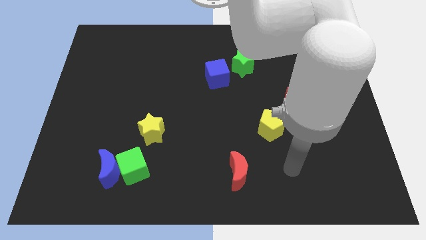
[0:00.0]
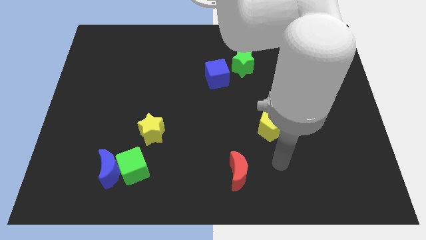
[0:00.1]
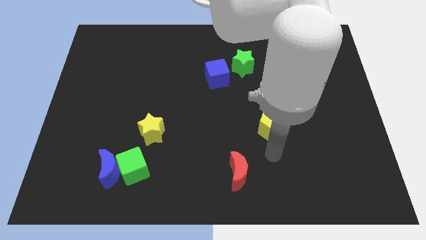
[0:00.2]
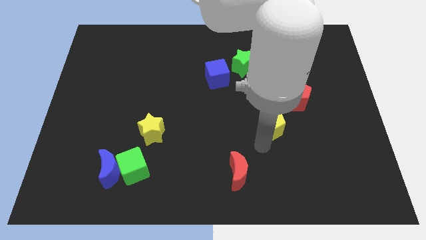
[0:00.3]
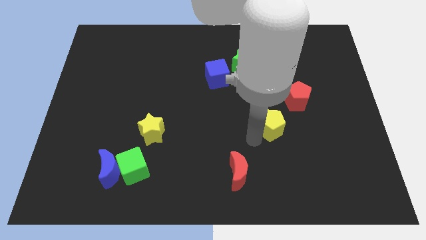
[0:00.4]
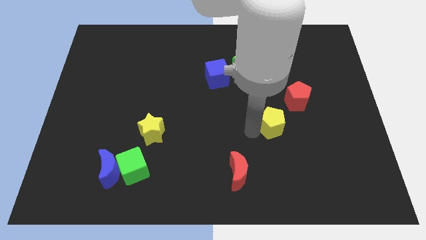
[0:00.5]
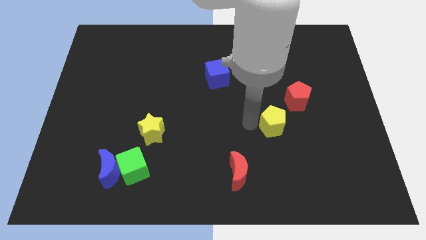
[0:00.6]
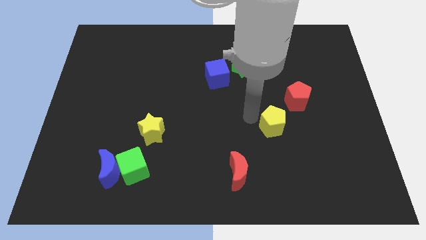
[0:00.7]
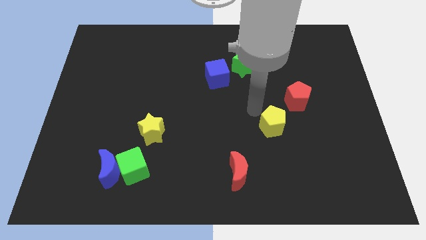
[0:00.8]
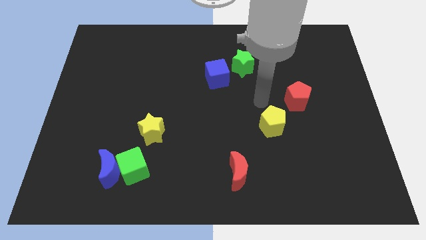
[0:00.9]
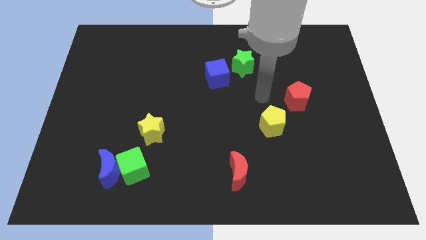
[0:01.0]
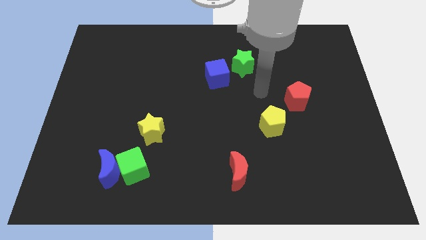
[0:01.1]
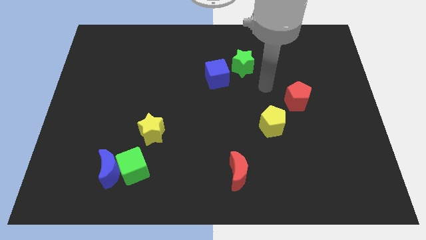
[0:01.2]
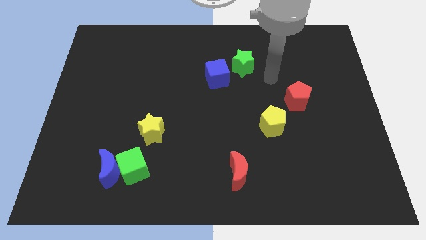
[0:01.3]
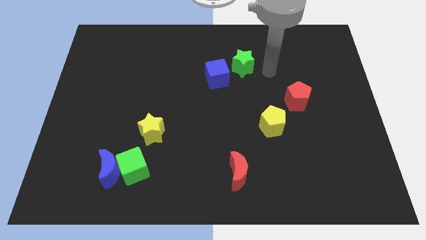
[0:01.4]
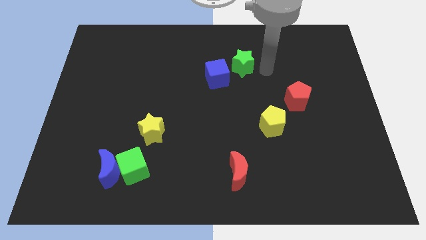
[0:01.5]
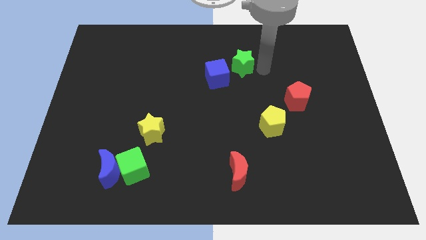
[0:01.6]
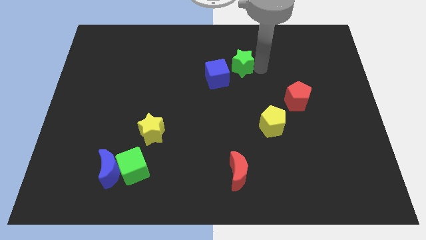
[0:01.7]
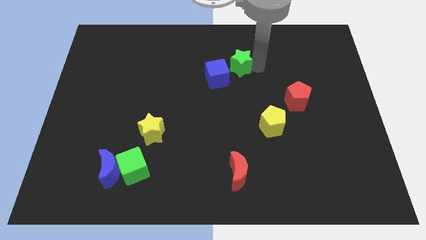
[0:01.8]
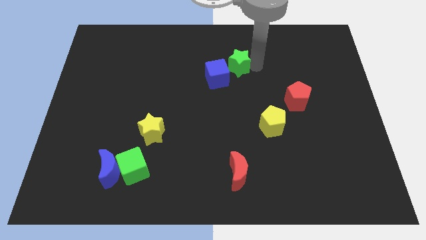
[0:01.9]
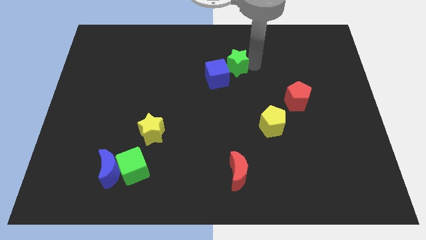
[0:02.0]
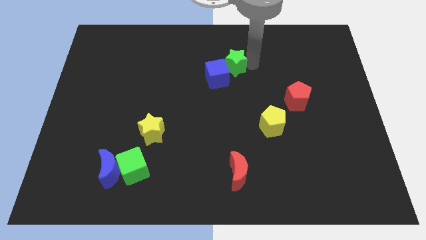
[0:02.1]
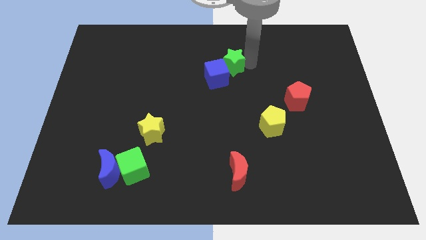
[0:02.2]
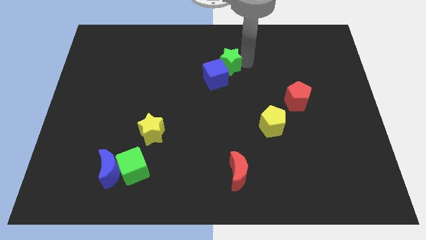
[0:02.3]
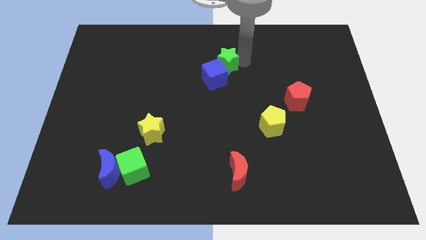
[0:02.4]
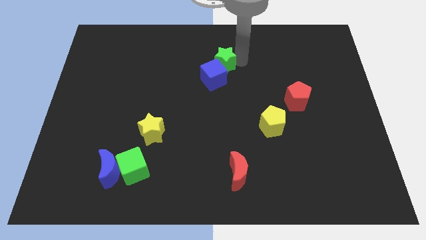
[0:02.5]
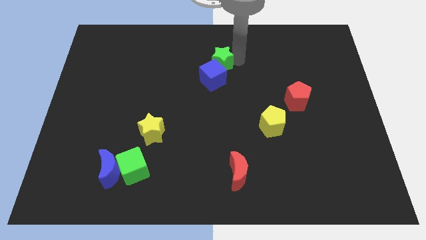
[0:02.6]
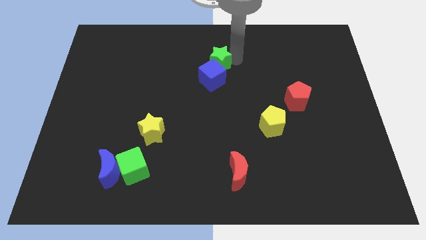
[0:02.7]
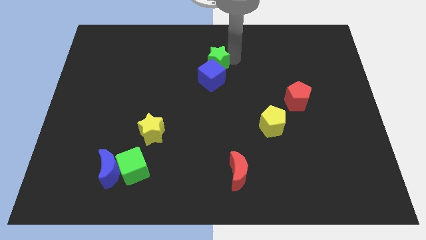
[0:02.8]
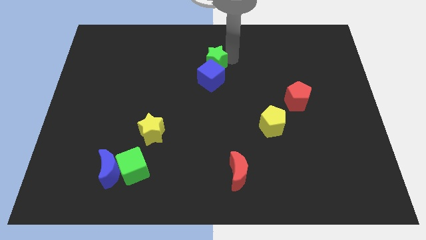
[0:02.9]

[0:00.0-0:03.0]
slide the green star slightly to the left

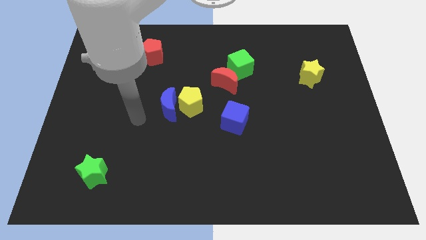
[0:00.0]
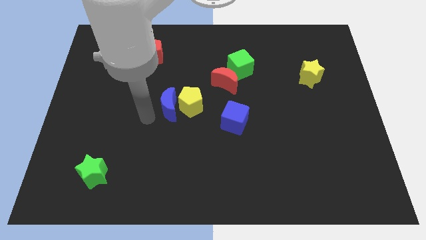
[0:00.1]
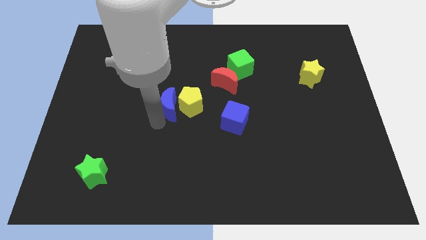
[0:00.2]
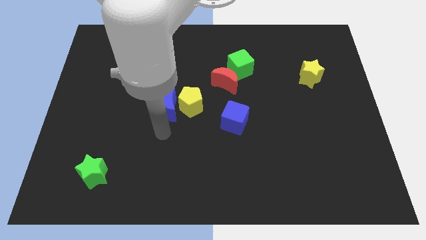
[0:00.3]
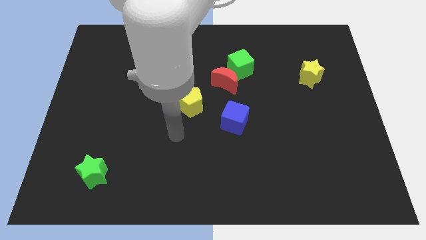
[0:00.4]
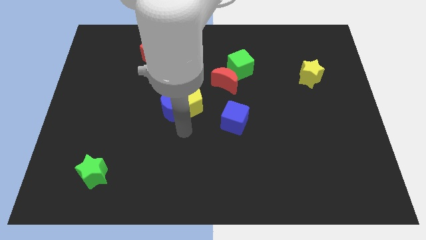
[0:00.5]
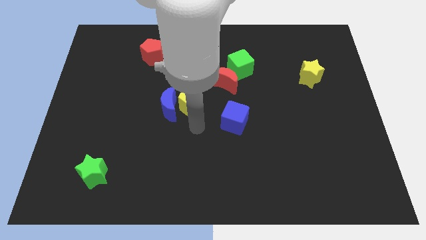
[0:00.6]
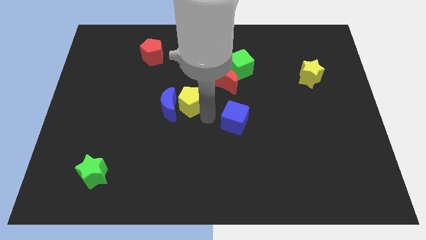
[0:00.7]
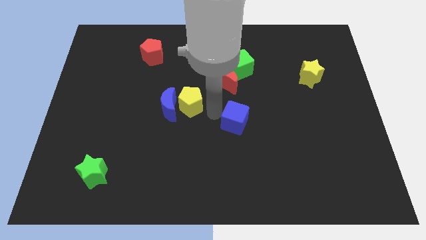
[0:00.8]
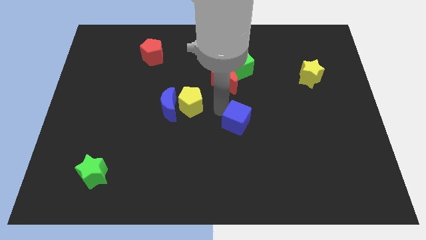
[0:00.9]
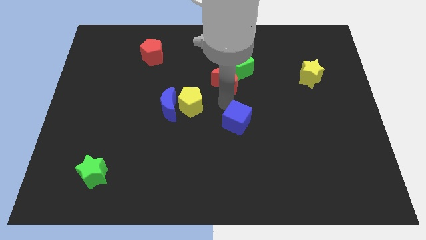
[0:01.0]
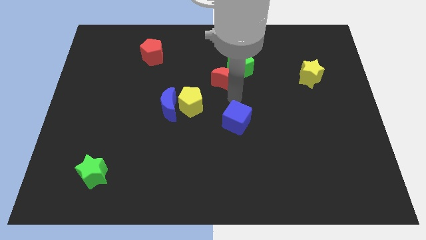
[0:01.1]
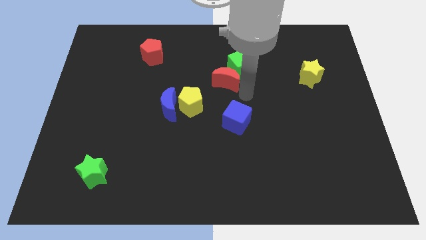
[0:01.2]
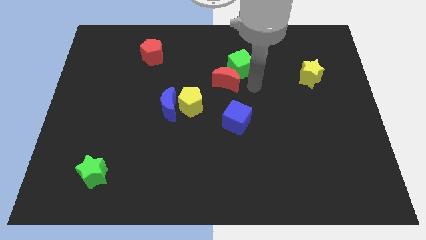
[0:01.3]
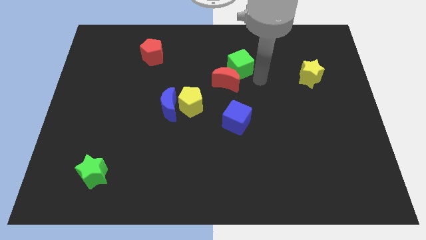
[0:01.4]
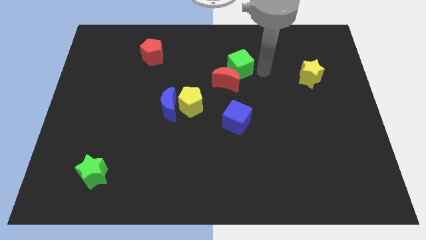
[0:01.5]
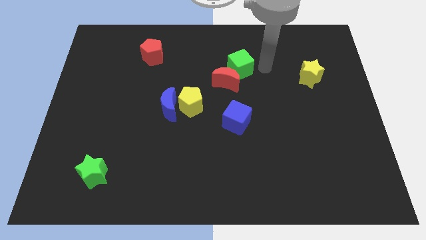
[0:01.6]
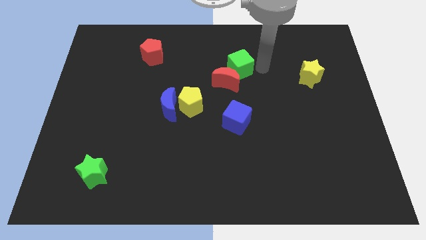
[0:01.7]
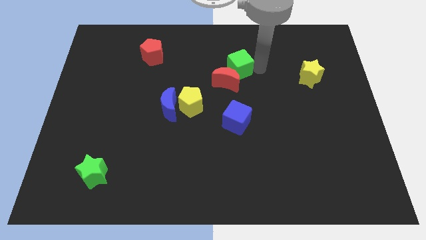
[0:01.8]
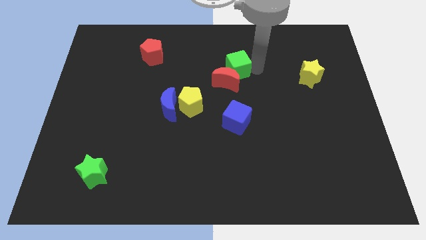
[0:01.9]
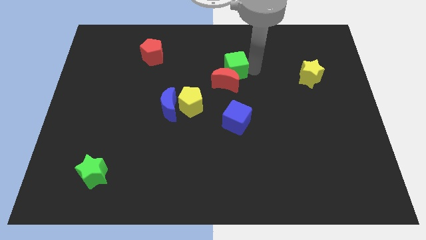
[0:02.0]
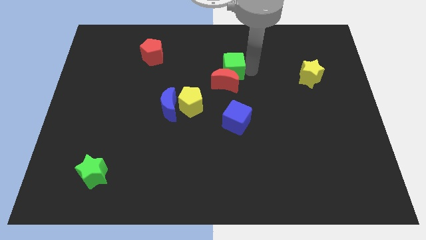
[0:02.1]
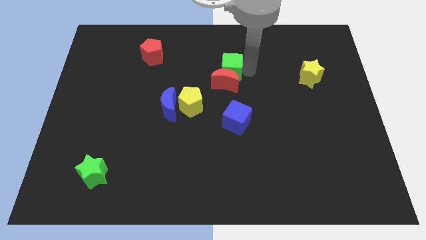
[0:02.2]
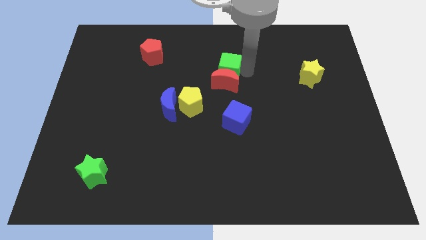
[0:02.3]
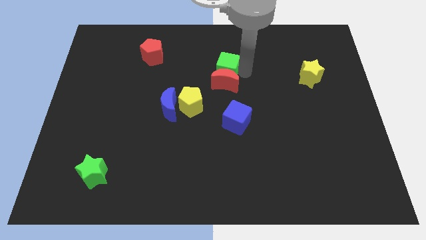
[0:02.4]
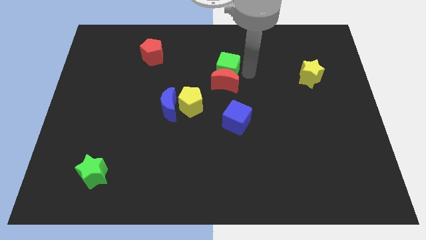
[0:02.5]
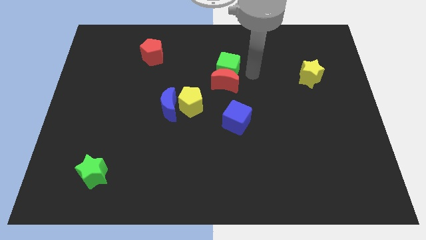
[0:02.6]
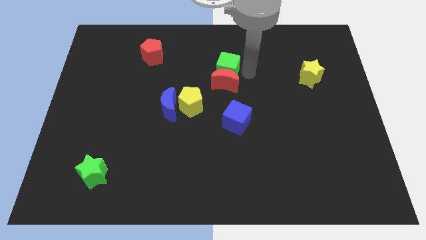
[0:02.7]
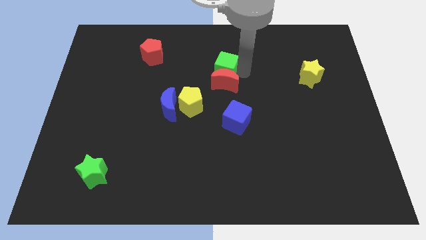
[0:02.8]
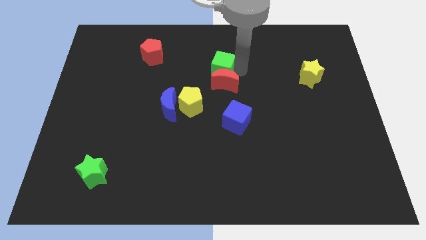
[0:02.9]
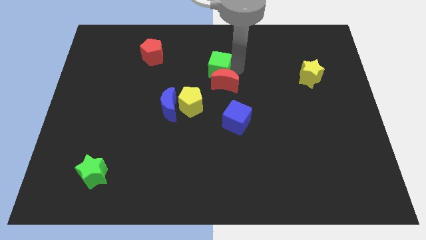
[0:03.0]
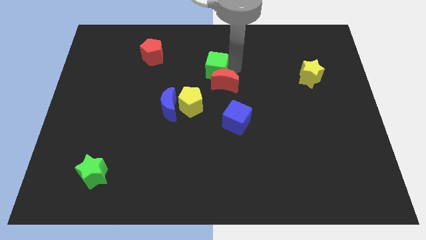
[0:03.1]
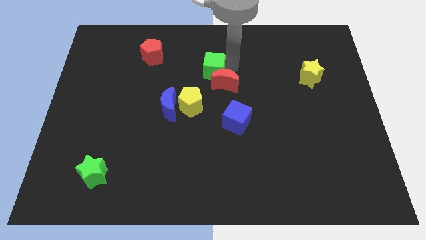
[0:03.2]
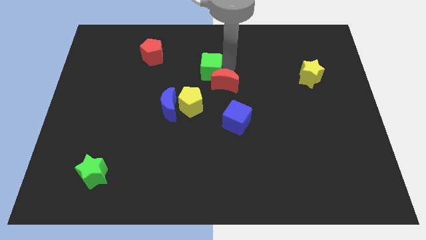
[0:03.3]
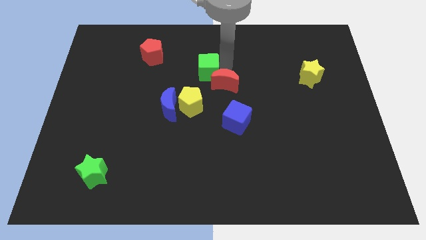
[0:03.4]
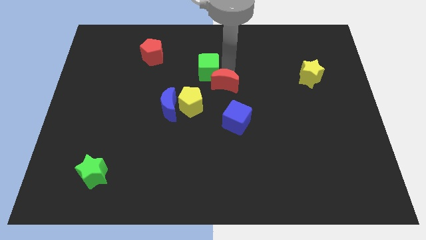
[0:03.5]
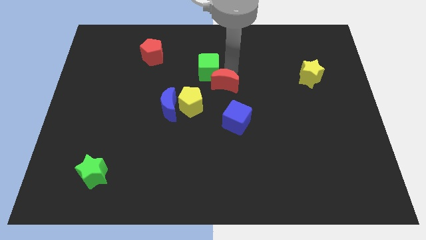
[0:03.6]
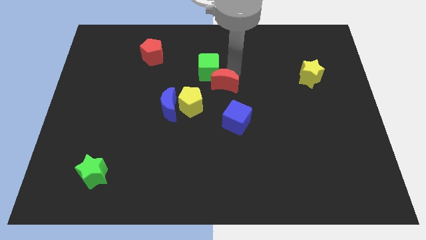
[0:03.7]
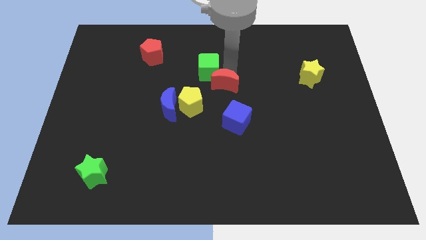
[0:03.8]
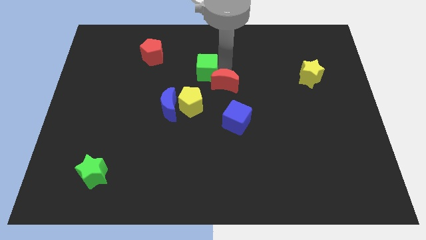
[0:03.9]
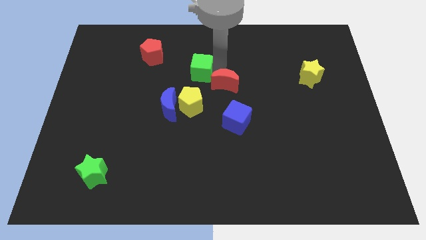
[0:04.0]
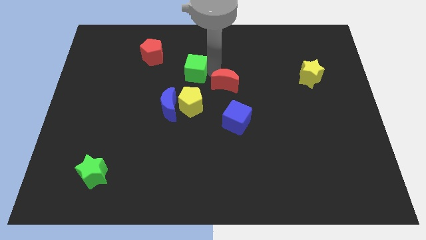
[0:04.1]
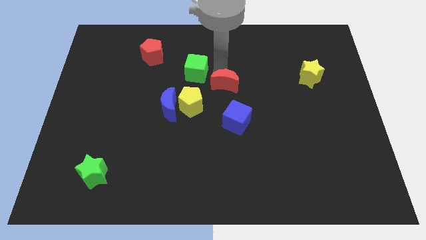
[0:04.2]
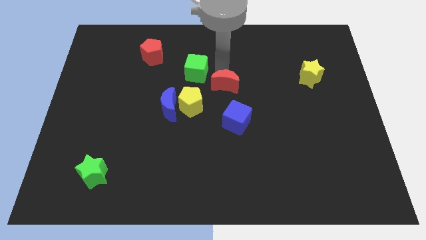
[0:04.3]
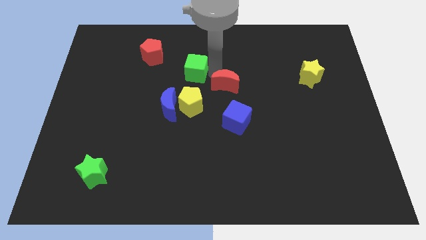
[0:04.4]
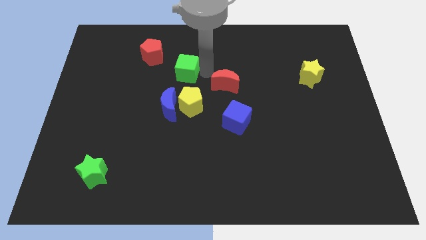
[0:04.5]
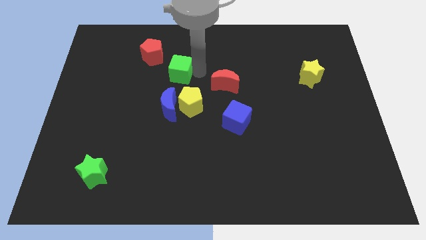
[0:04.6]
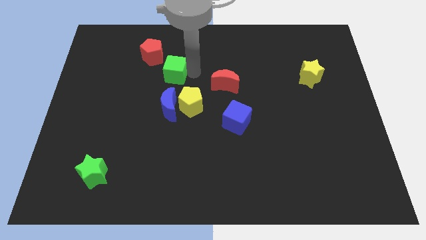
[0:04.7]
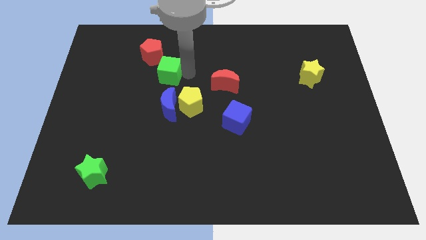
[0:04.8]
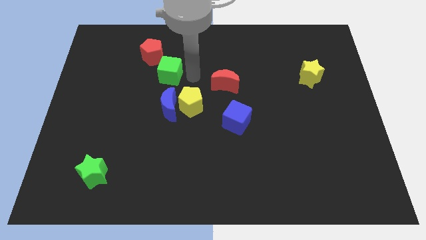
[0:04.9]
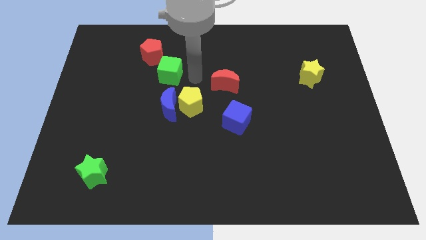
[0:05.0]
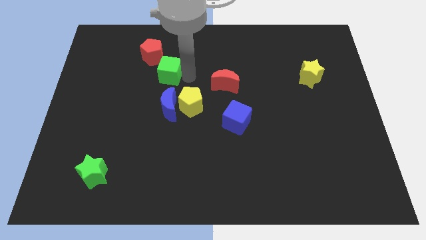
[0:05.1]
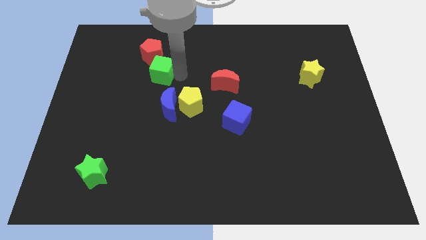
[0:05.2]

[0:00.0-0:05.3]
move the green cube left
